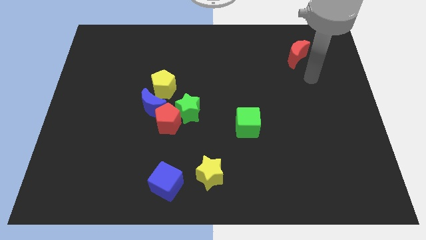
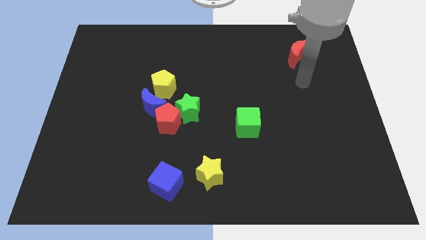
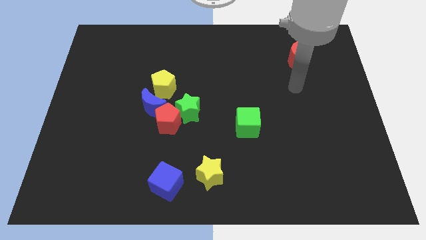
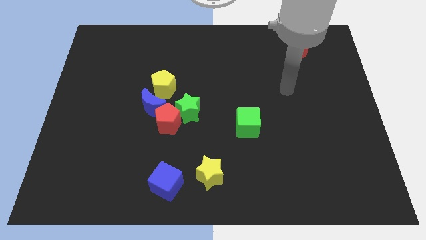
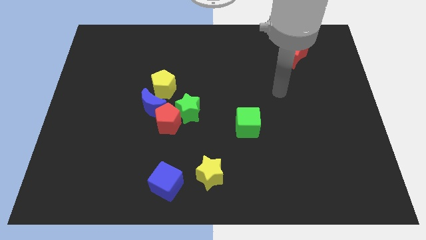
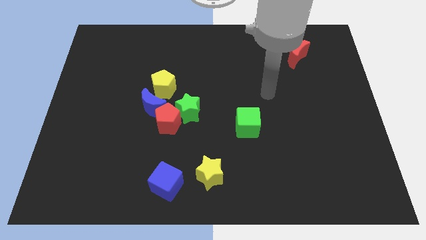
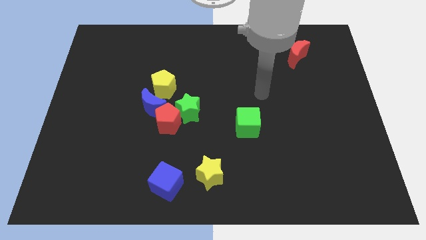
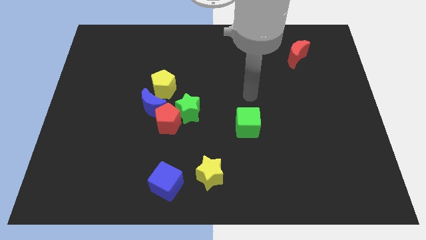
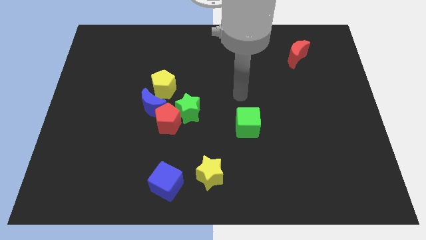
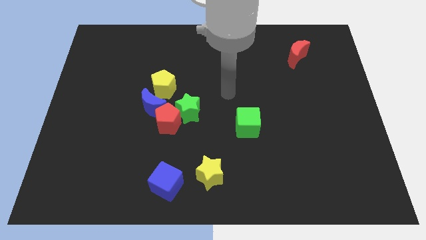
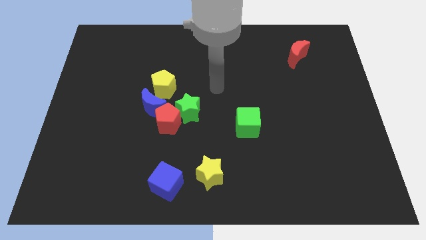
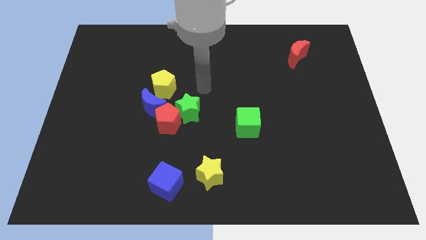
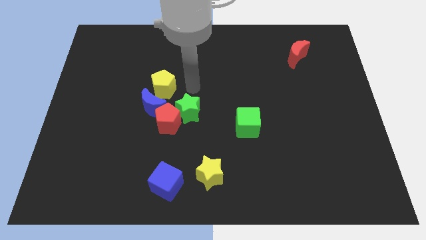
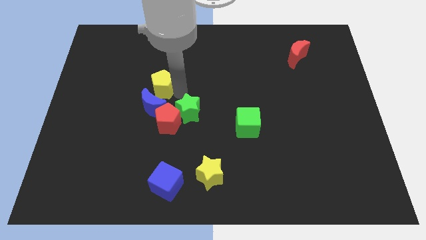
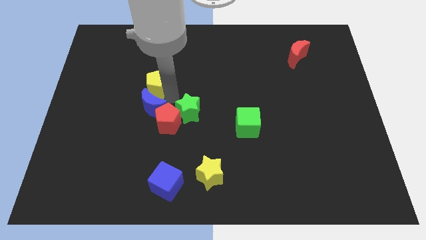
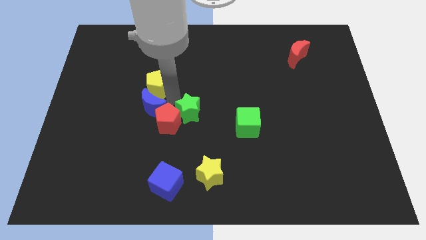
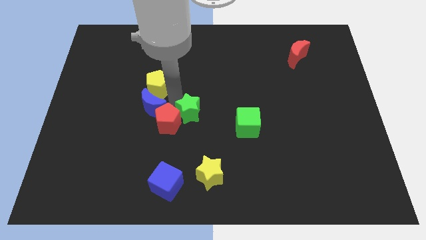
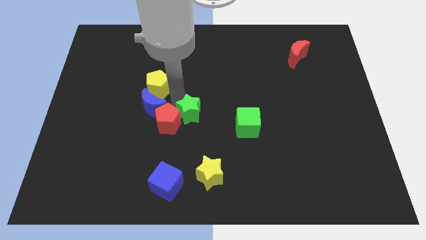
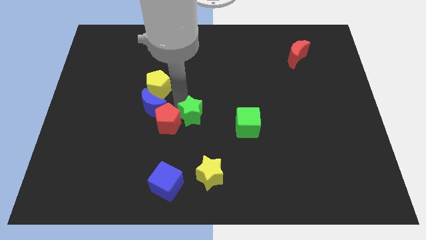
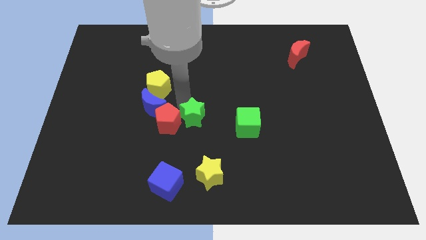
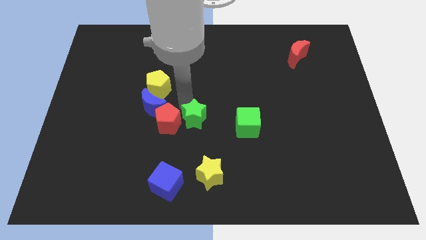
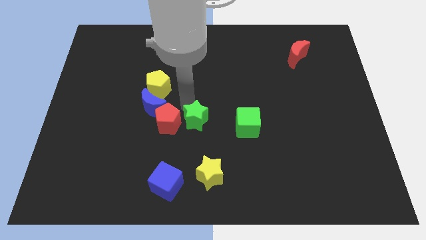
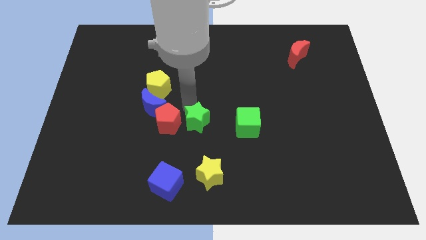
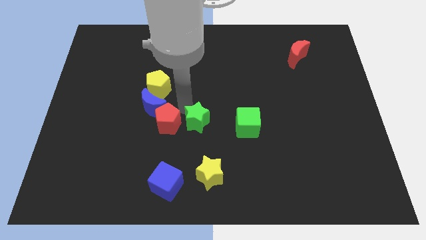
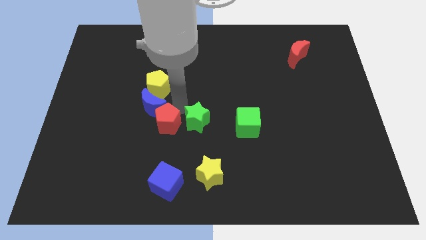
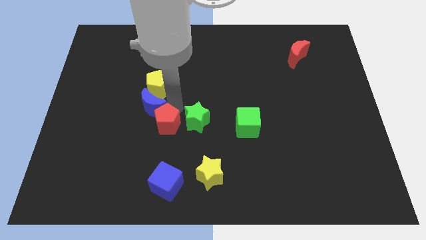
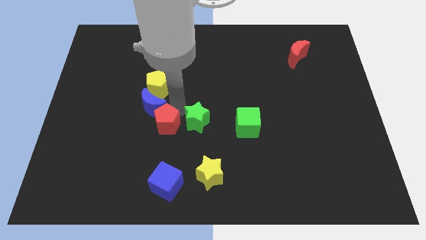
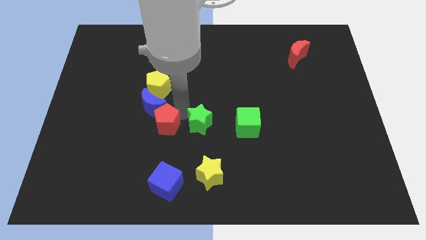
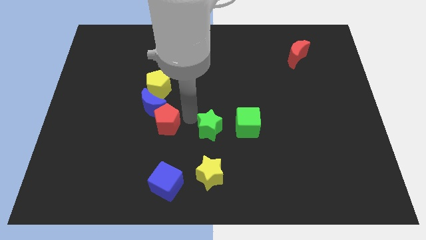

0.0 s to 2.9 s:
slide the green star downwards and then right a little

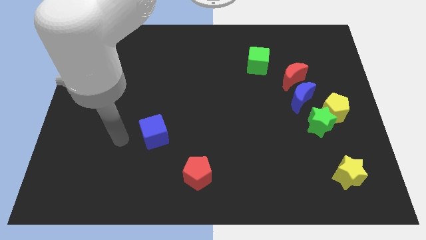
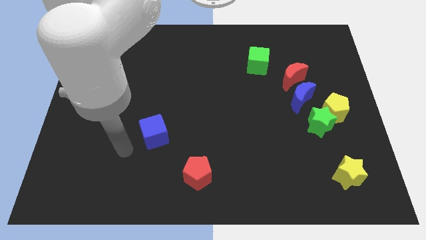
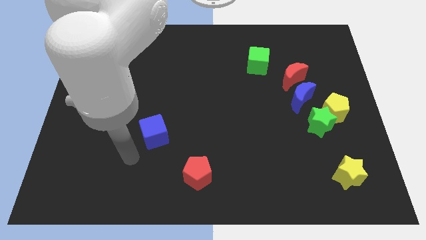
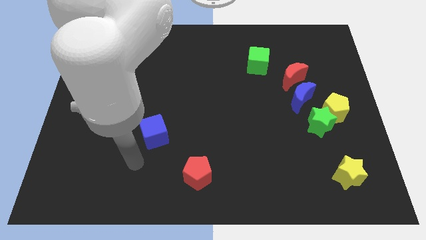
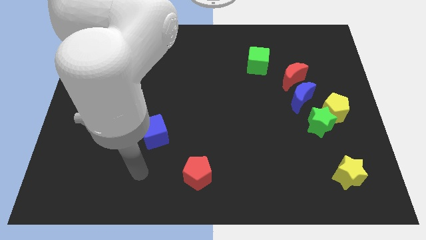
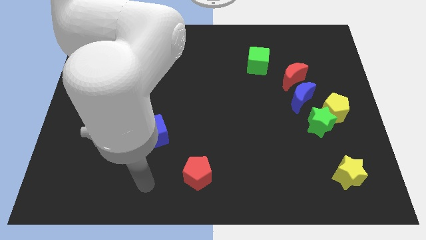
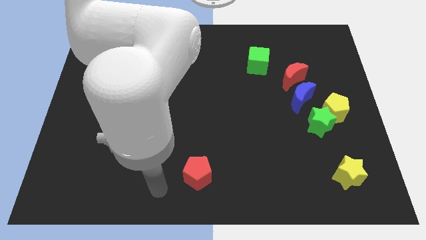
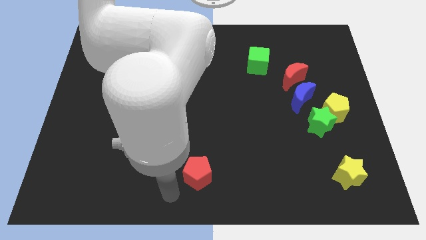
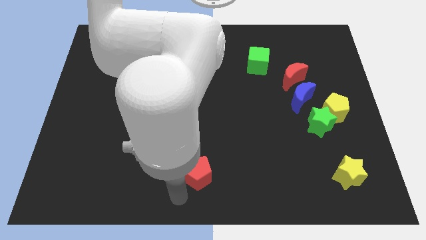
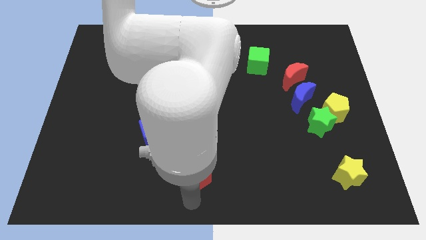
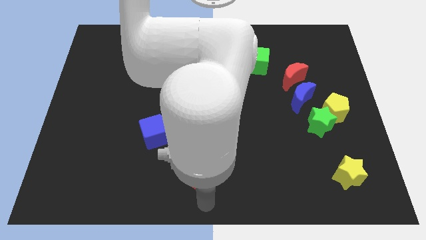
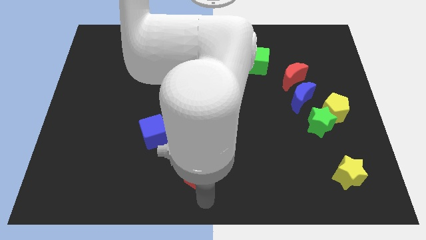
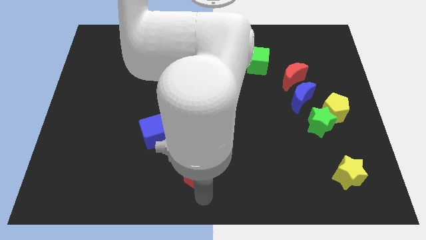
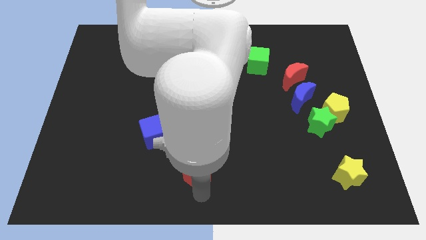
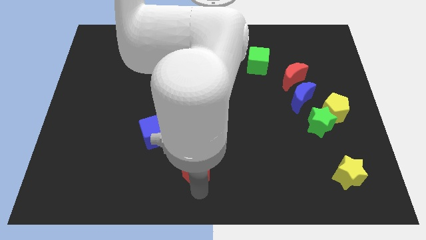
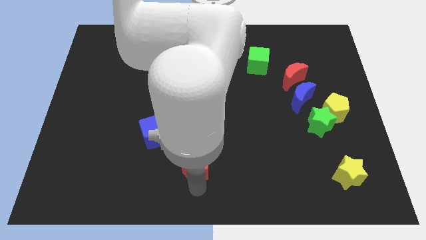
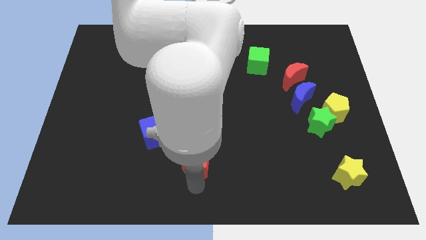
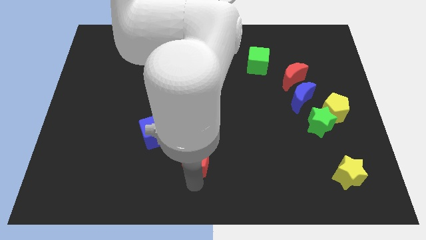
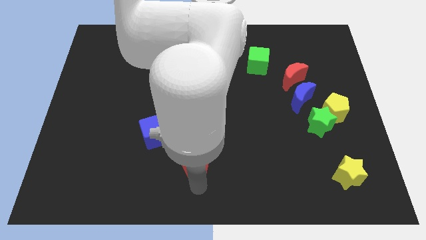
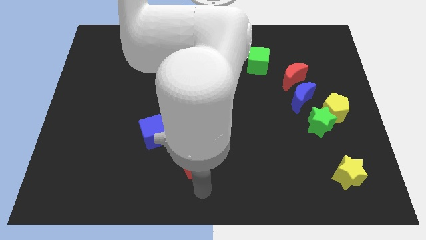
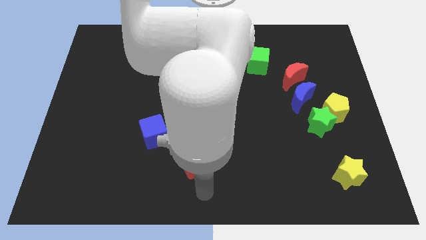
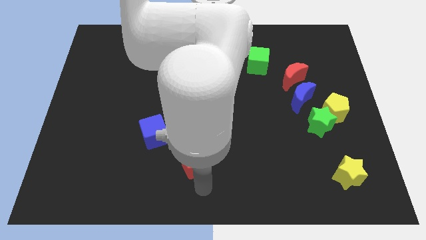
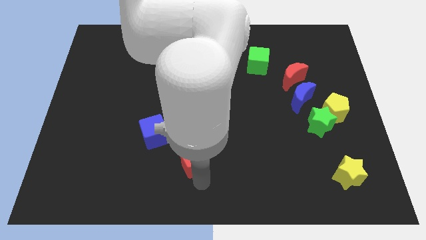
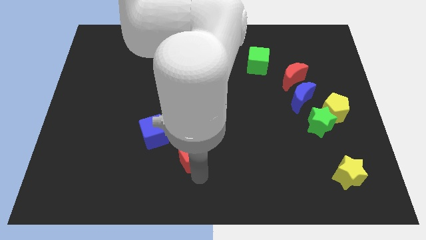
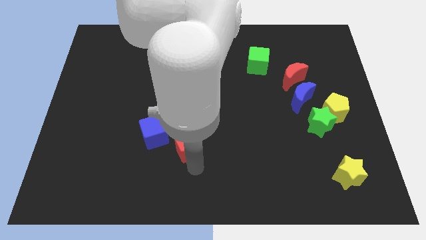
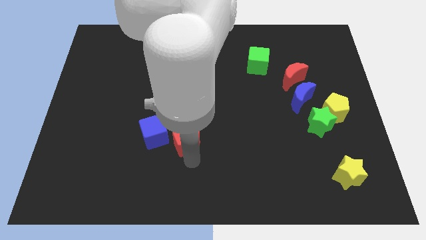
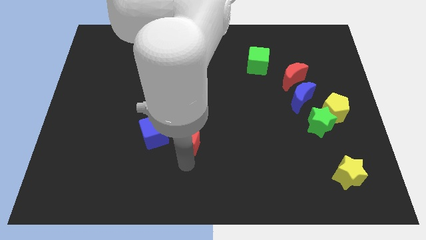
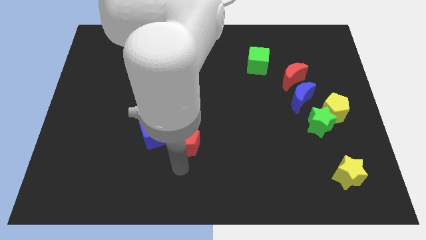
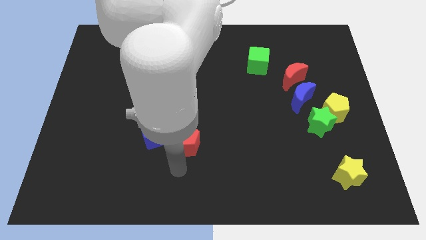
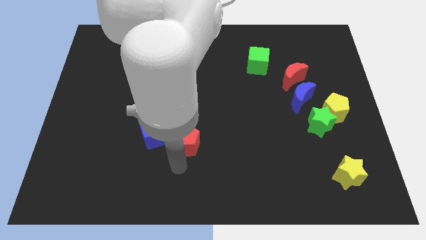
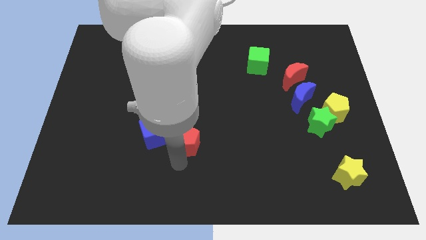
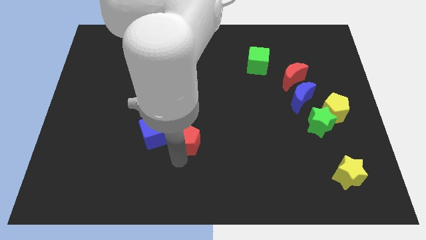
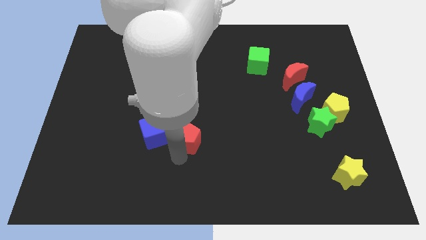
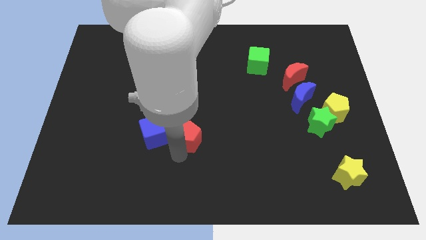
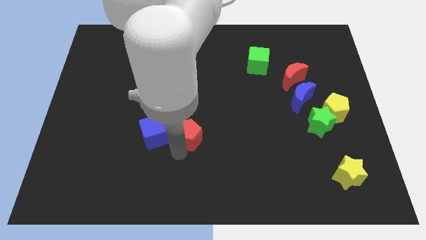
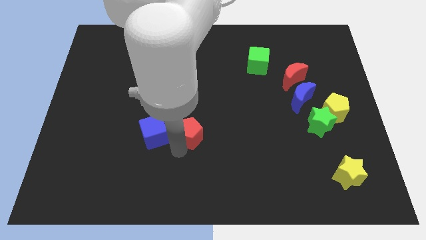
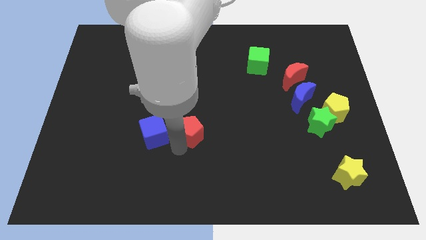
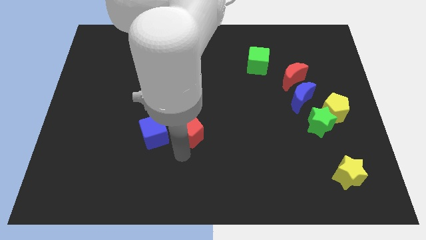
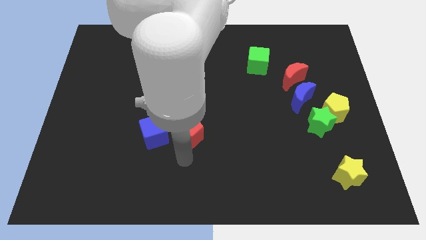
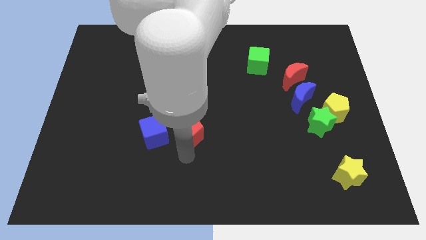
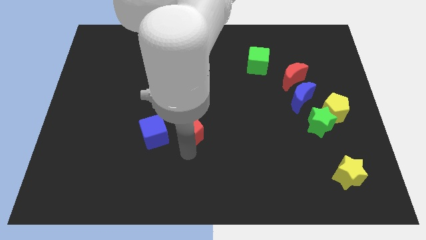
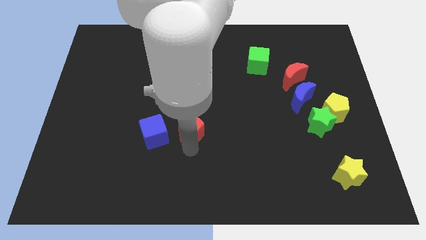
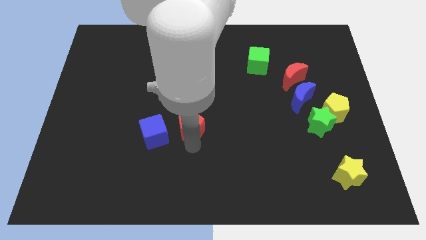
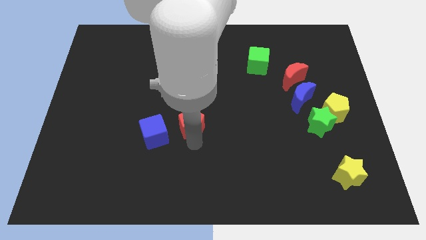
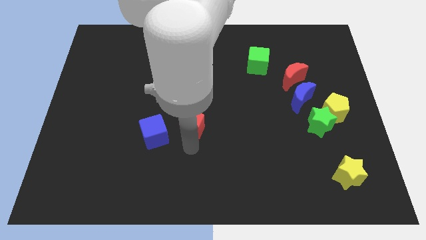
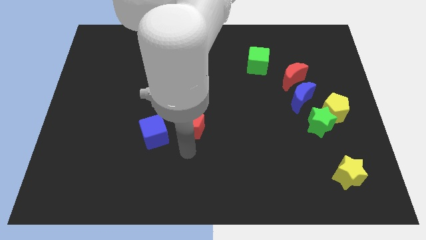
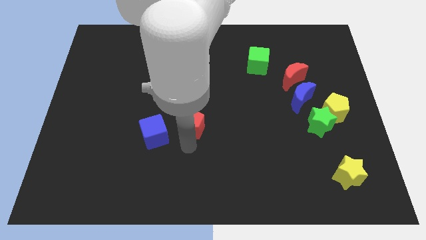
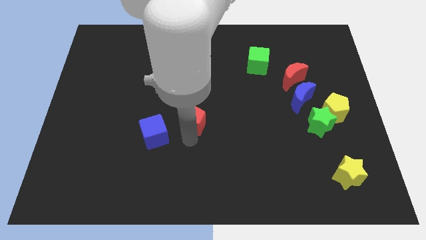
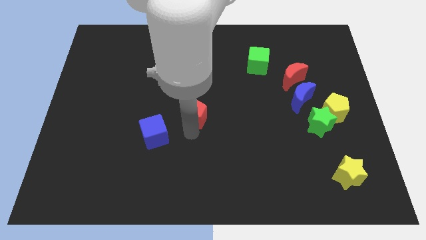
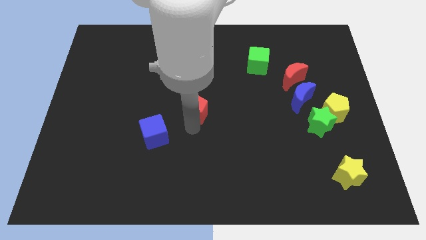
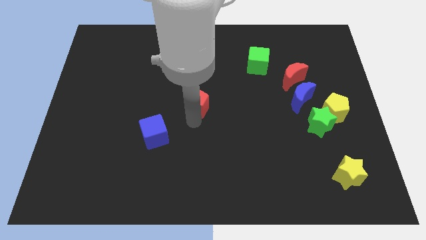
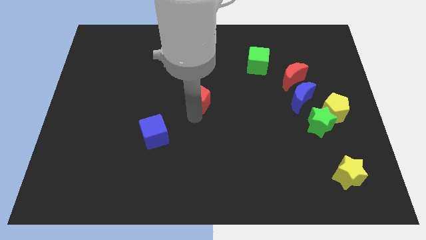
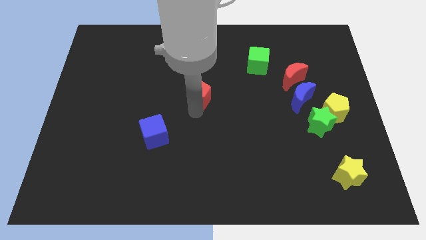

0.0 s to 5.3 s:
move the red pentagon upwards
